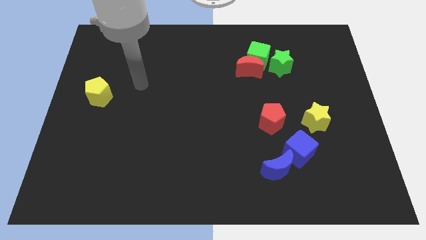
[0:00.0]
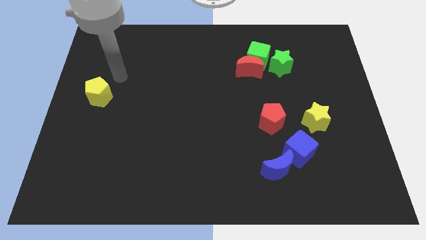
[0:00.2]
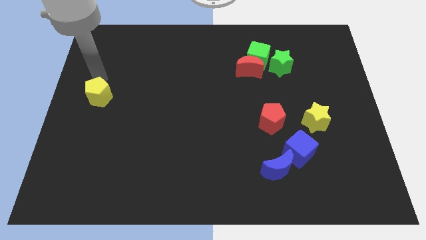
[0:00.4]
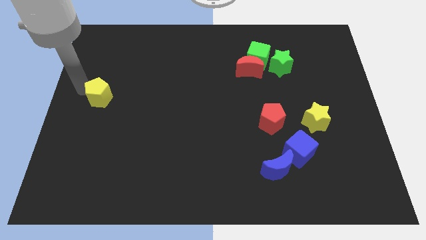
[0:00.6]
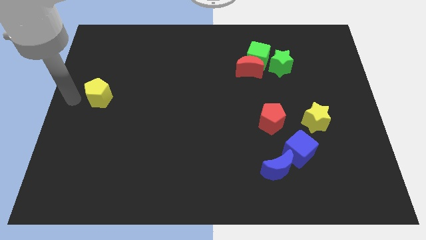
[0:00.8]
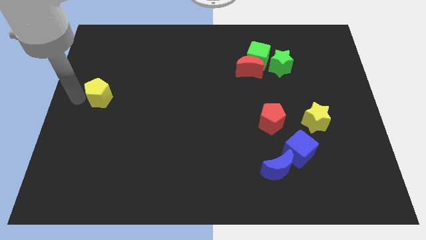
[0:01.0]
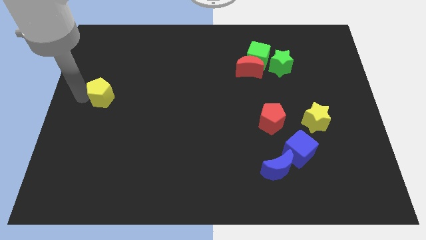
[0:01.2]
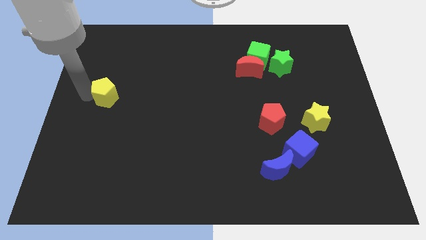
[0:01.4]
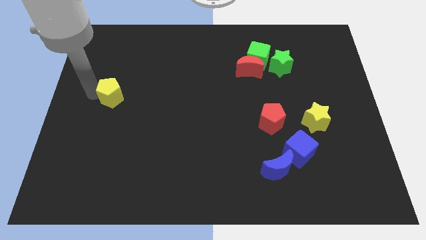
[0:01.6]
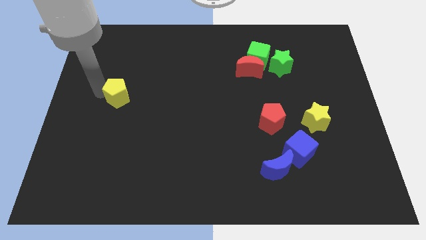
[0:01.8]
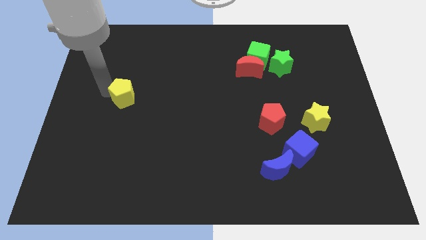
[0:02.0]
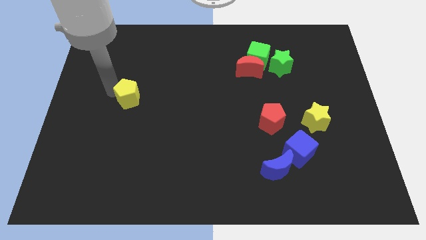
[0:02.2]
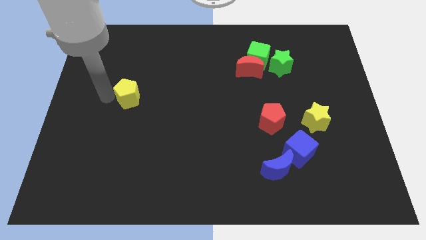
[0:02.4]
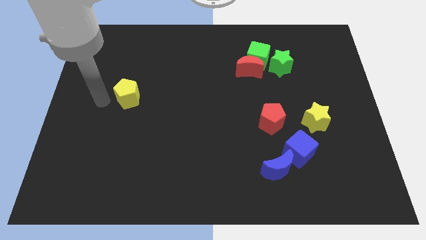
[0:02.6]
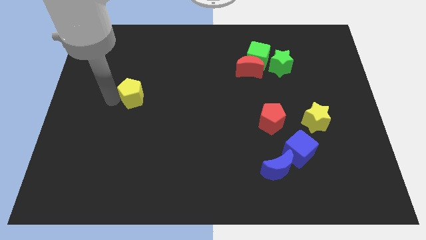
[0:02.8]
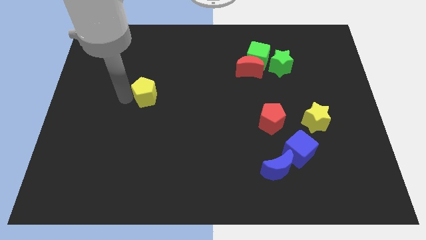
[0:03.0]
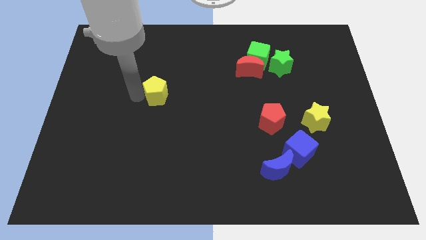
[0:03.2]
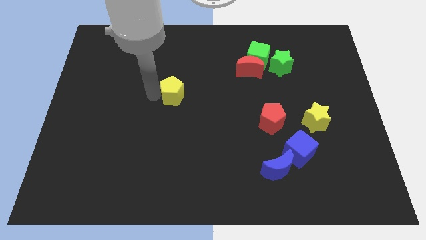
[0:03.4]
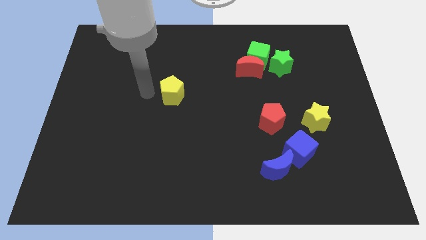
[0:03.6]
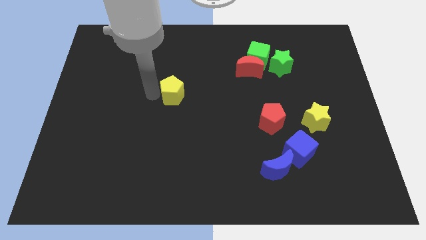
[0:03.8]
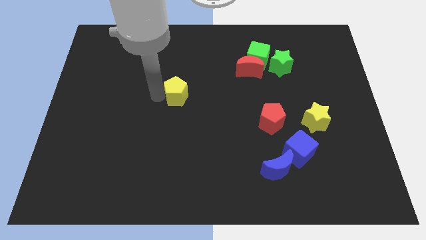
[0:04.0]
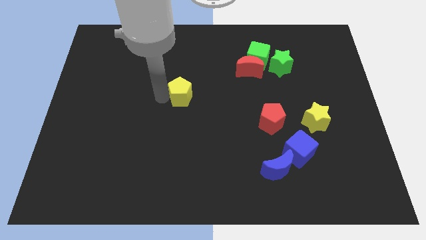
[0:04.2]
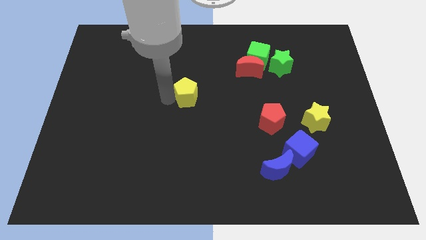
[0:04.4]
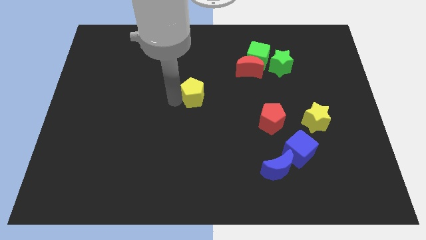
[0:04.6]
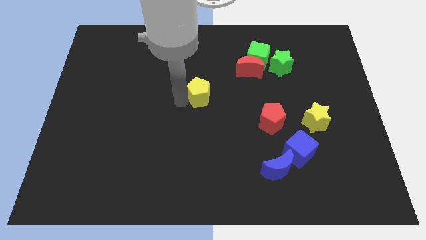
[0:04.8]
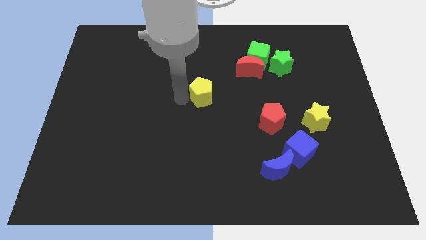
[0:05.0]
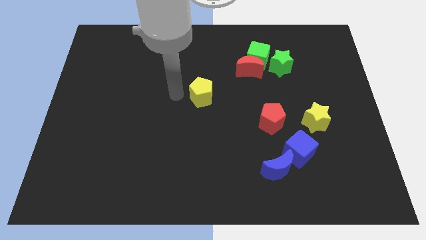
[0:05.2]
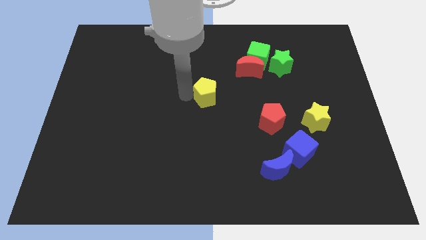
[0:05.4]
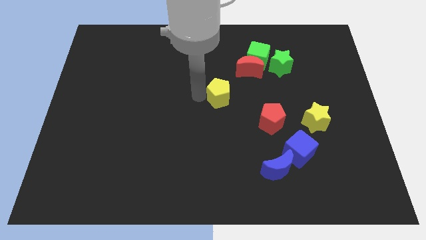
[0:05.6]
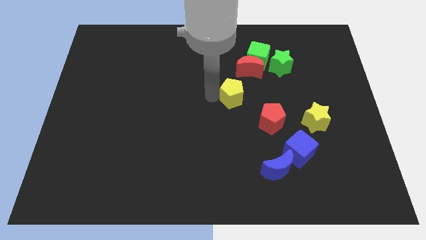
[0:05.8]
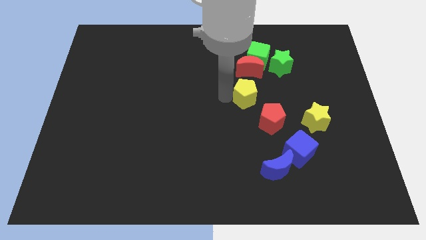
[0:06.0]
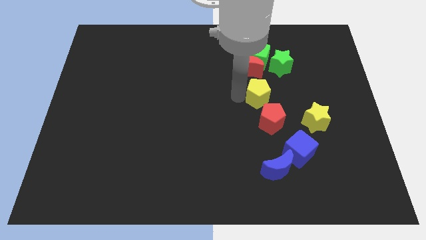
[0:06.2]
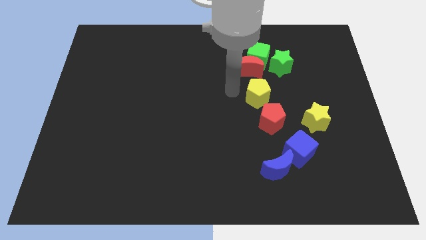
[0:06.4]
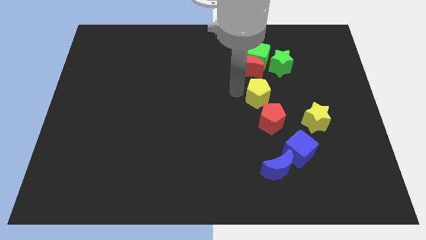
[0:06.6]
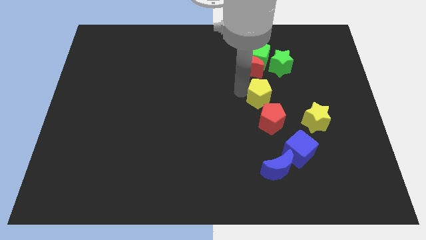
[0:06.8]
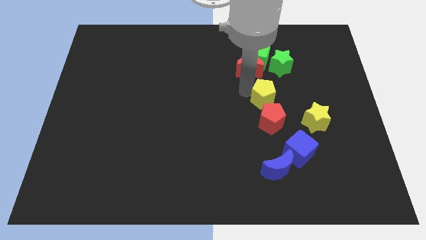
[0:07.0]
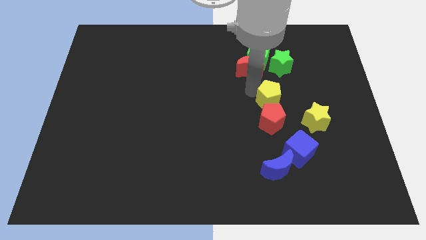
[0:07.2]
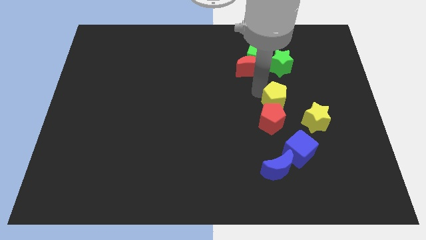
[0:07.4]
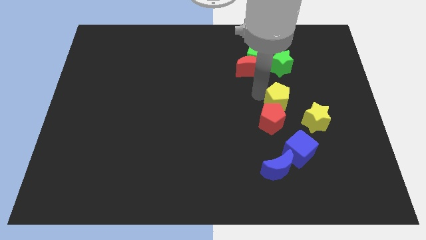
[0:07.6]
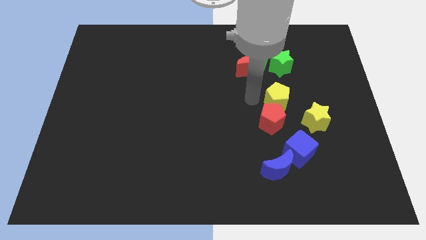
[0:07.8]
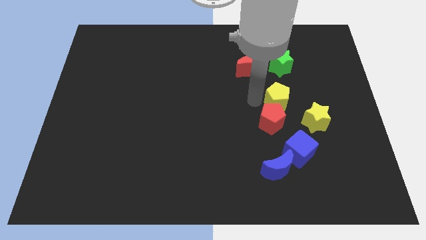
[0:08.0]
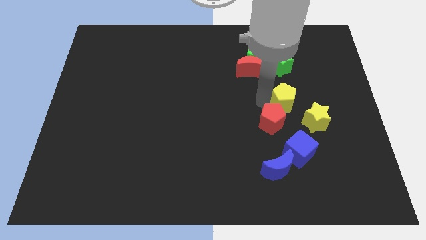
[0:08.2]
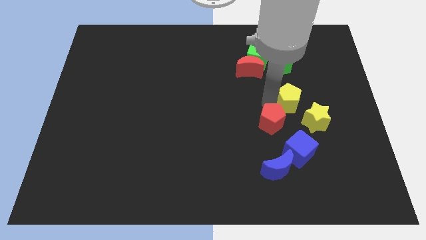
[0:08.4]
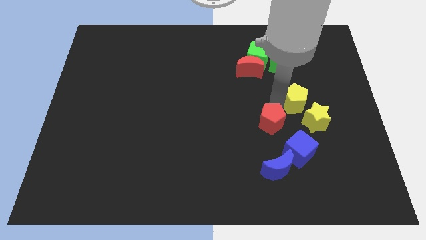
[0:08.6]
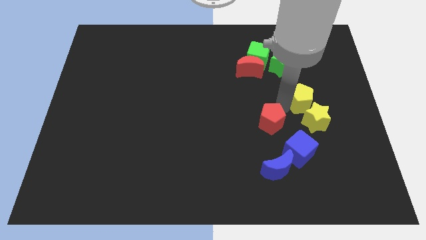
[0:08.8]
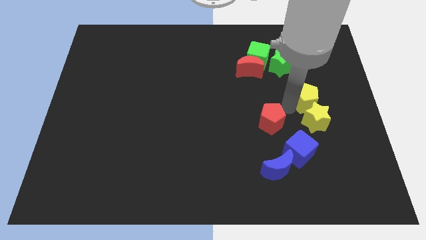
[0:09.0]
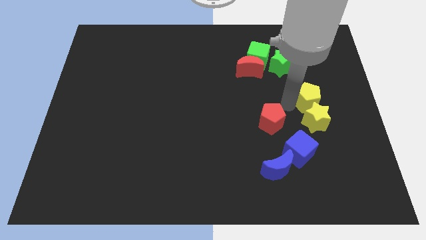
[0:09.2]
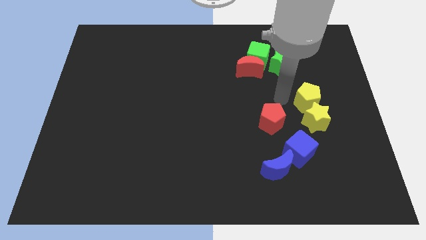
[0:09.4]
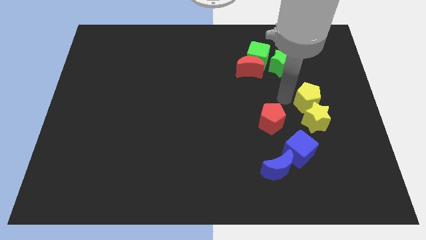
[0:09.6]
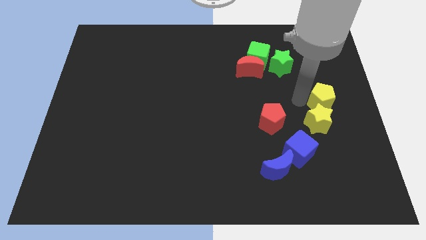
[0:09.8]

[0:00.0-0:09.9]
push the yellow pentagon to the right side

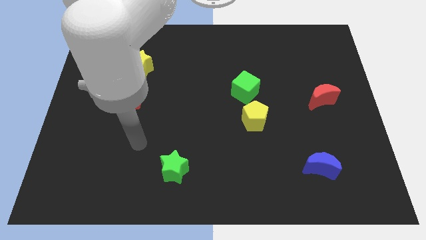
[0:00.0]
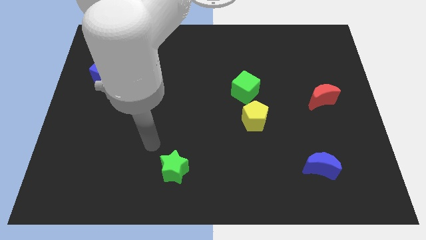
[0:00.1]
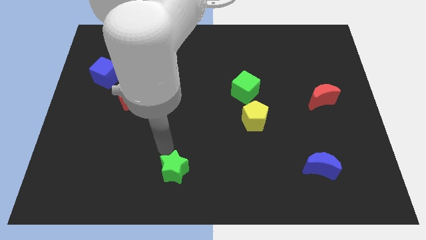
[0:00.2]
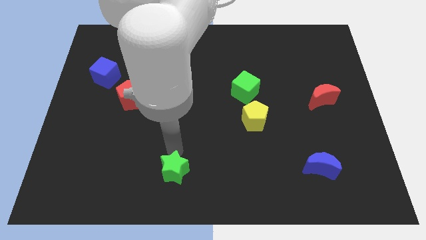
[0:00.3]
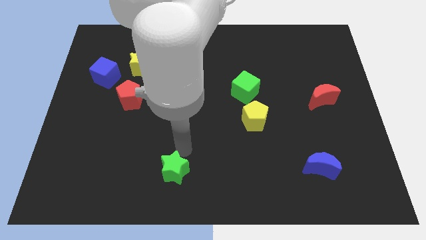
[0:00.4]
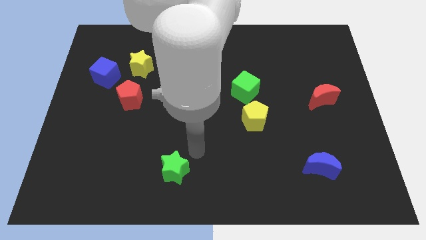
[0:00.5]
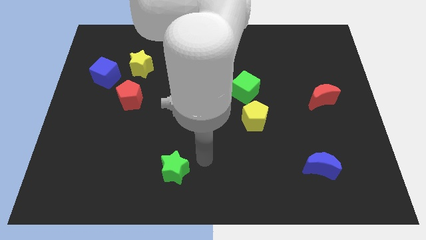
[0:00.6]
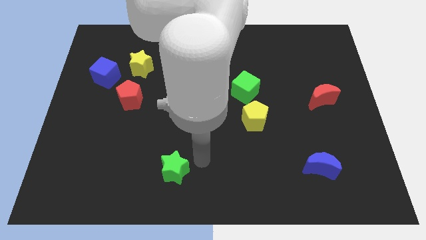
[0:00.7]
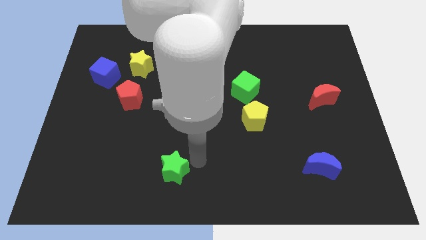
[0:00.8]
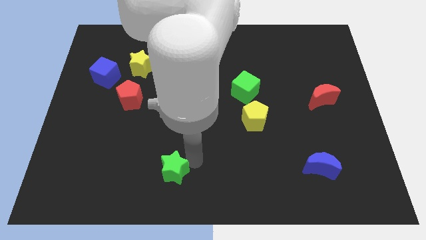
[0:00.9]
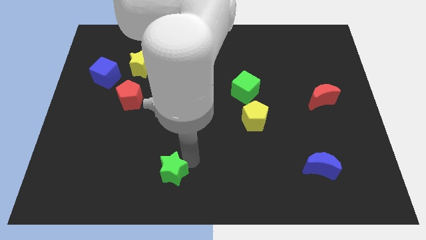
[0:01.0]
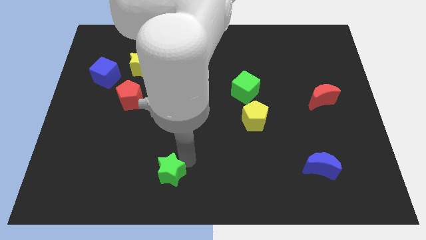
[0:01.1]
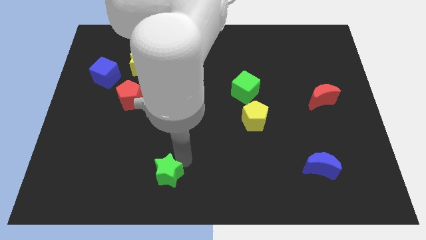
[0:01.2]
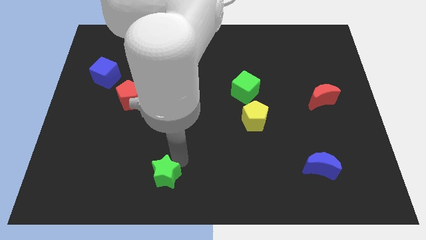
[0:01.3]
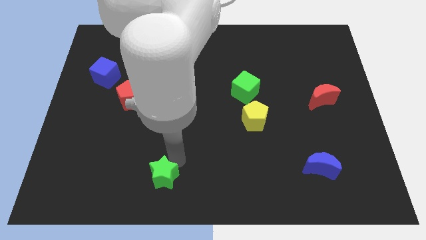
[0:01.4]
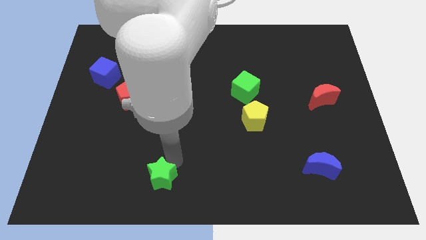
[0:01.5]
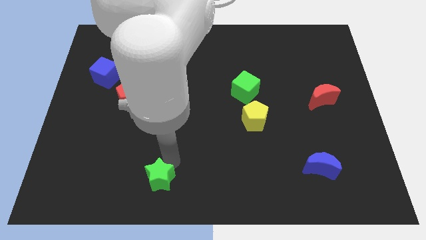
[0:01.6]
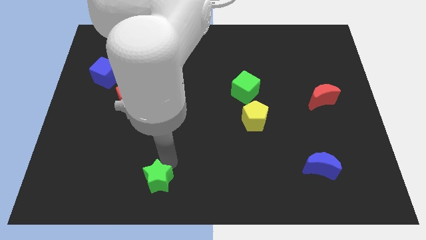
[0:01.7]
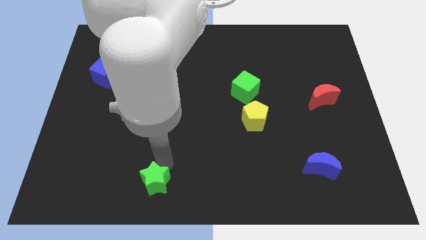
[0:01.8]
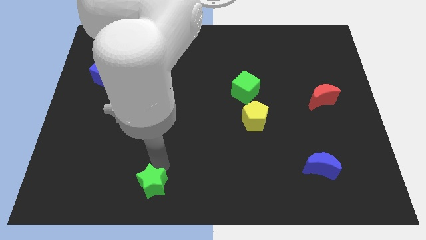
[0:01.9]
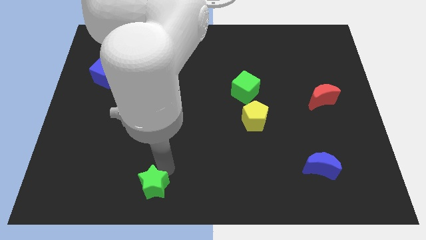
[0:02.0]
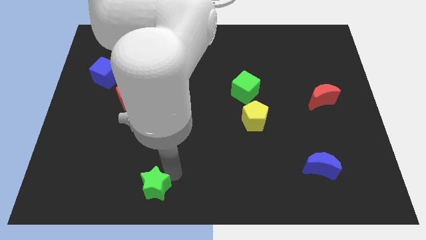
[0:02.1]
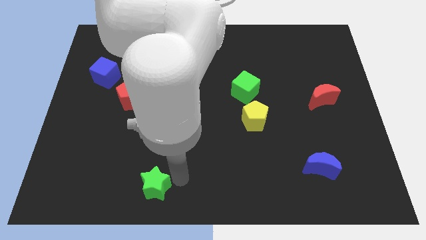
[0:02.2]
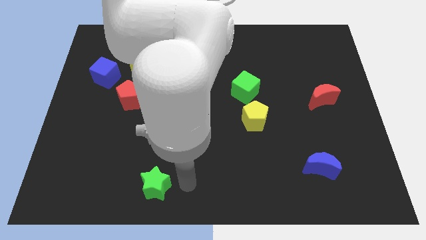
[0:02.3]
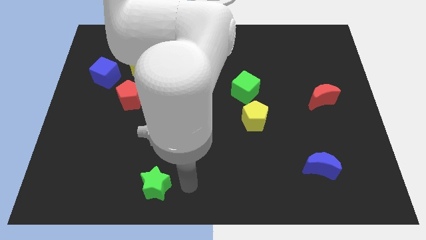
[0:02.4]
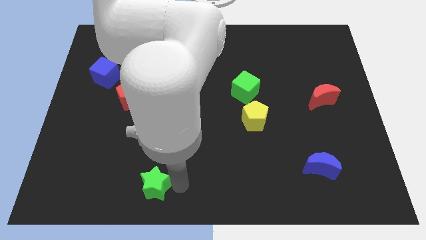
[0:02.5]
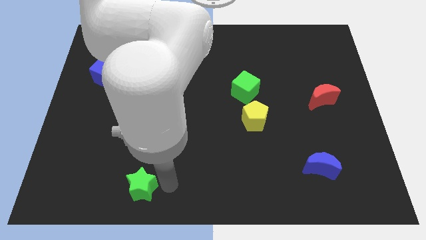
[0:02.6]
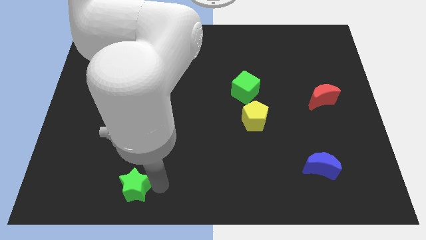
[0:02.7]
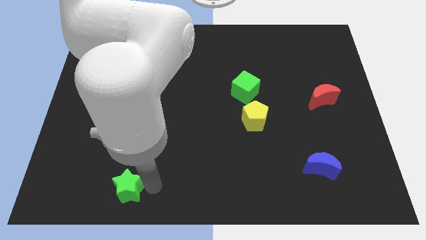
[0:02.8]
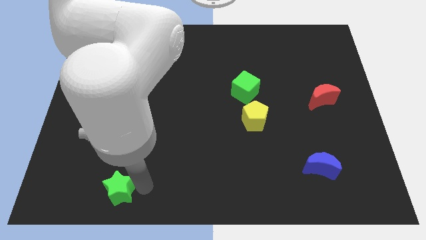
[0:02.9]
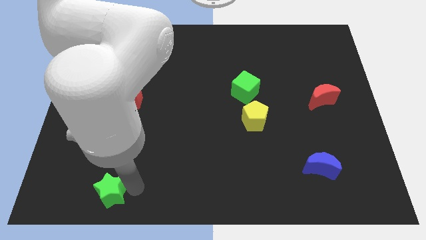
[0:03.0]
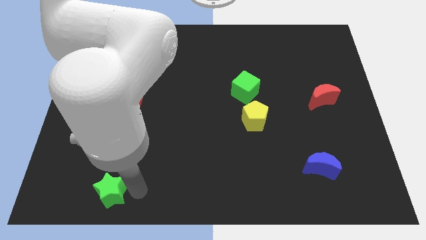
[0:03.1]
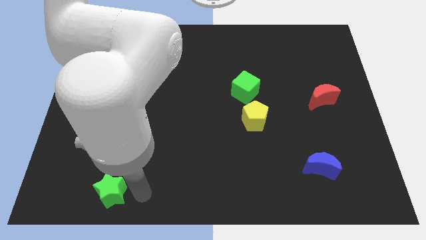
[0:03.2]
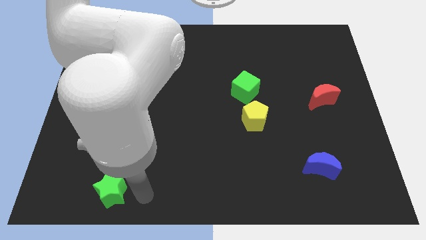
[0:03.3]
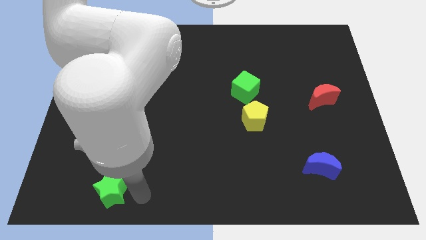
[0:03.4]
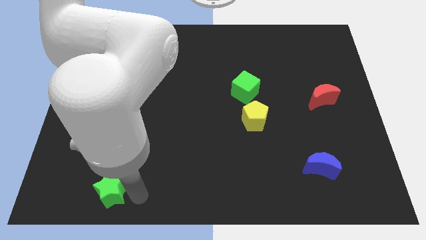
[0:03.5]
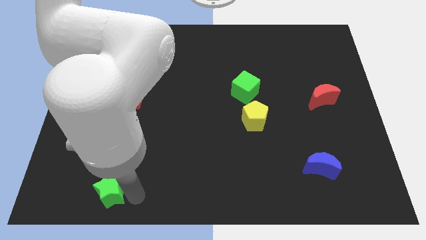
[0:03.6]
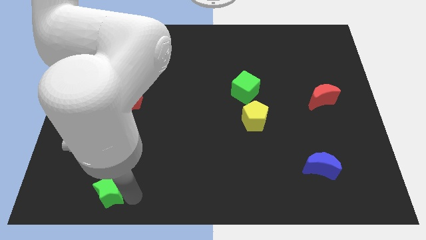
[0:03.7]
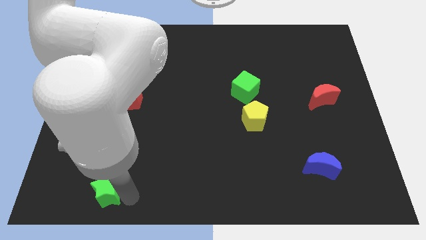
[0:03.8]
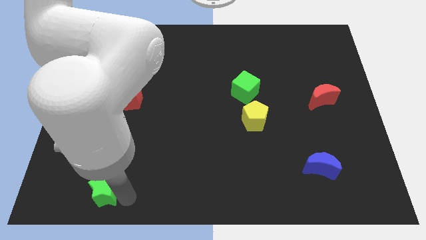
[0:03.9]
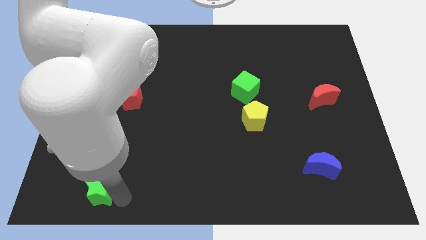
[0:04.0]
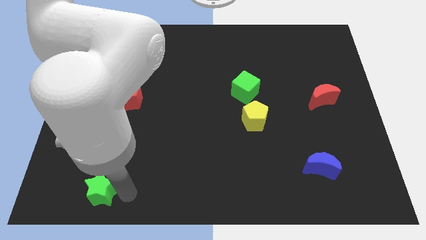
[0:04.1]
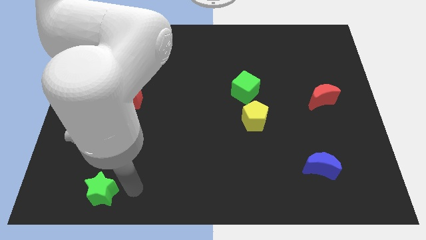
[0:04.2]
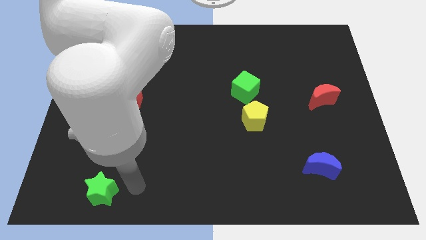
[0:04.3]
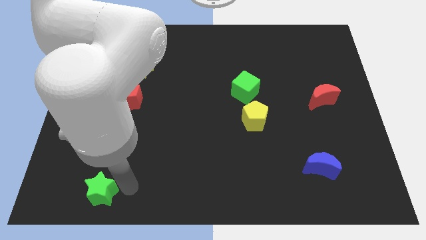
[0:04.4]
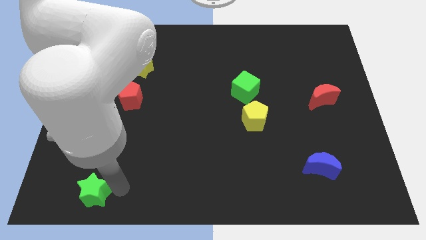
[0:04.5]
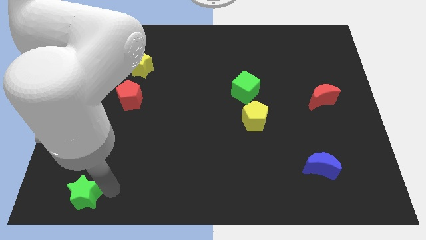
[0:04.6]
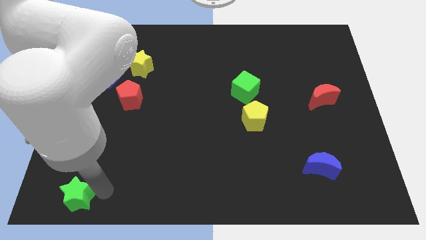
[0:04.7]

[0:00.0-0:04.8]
slide the green star to the bottom left
